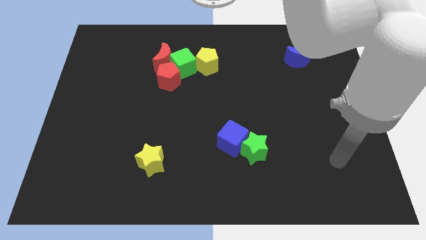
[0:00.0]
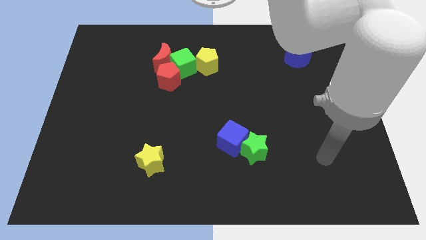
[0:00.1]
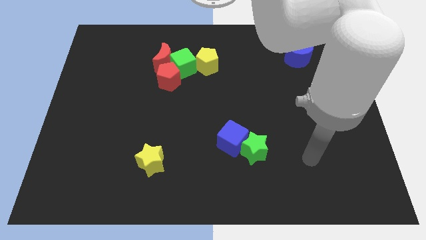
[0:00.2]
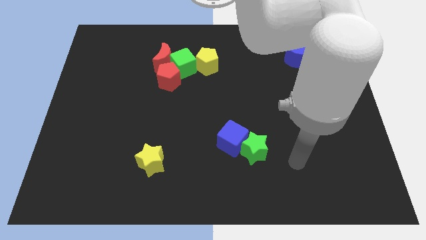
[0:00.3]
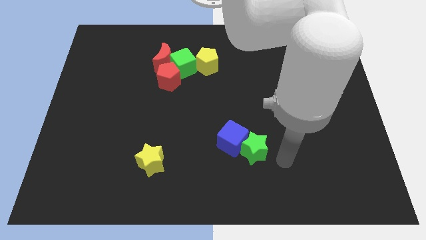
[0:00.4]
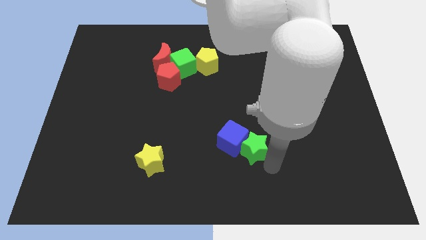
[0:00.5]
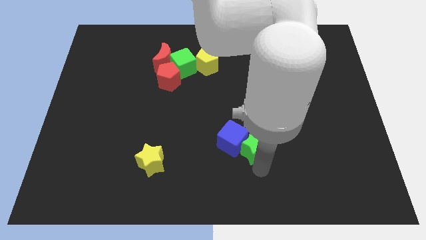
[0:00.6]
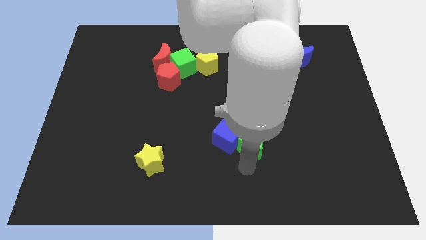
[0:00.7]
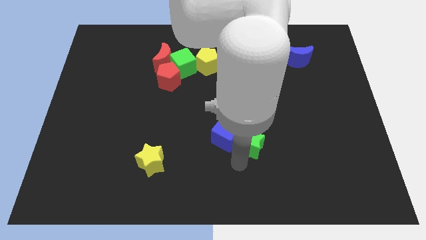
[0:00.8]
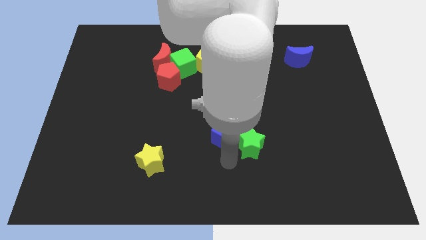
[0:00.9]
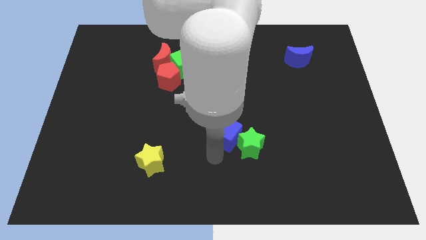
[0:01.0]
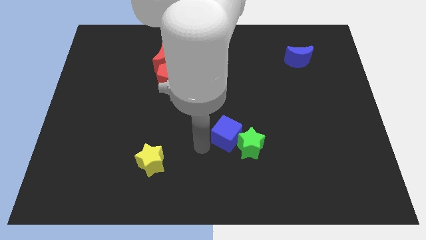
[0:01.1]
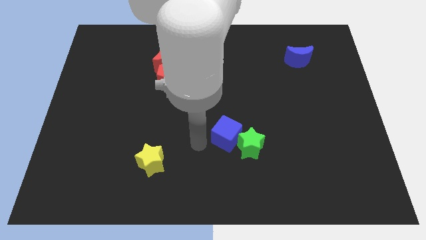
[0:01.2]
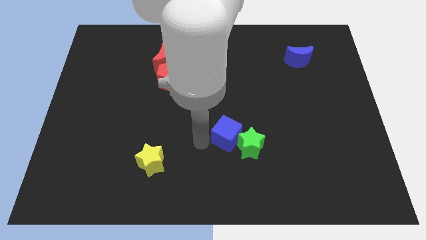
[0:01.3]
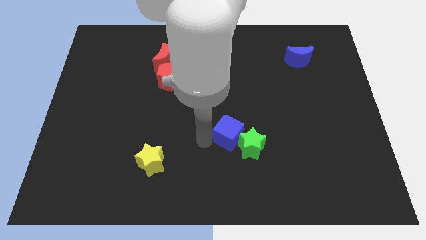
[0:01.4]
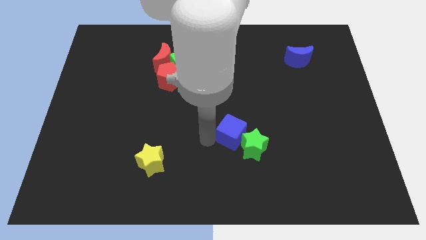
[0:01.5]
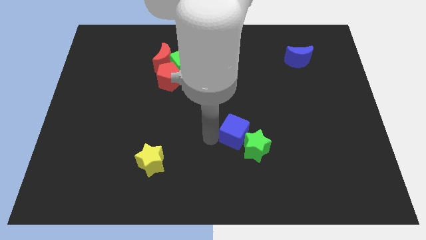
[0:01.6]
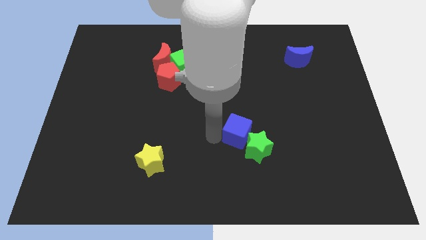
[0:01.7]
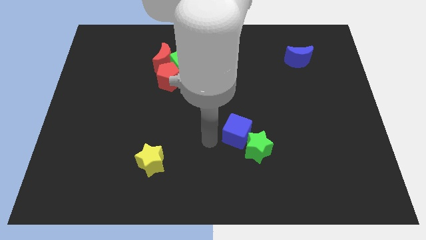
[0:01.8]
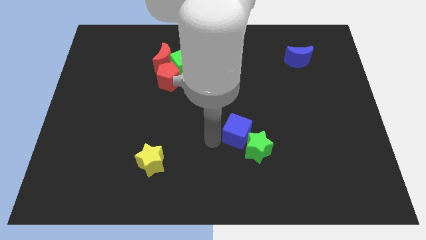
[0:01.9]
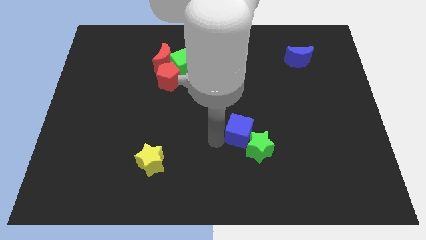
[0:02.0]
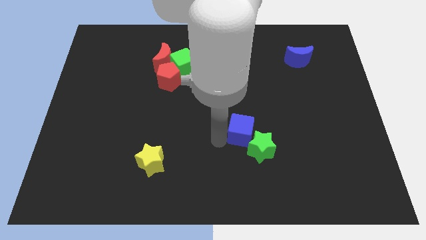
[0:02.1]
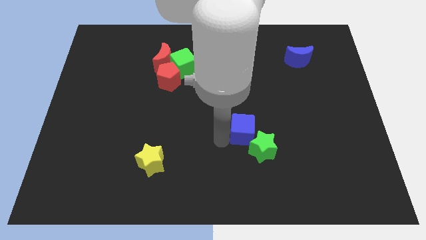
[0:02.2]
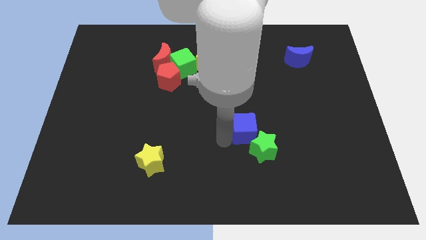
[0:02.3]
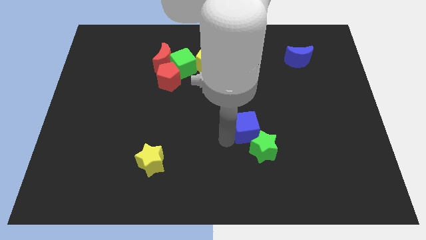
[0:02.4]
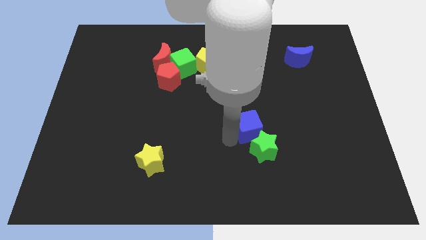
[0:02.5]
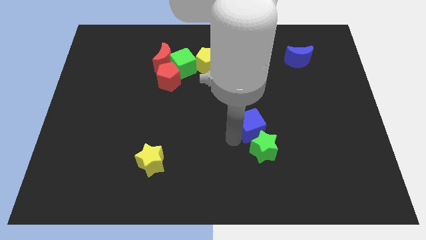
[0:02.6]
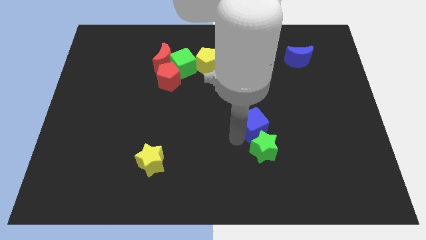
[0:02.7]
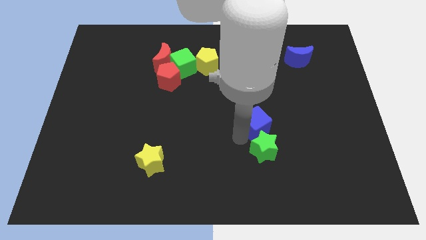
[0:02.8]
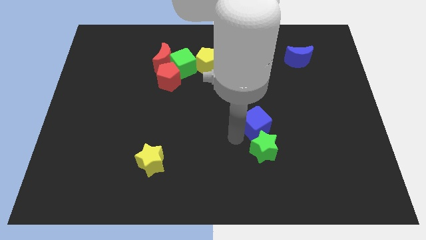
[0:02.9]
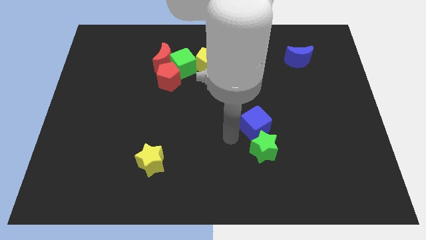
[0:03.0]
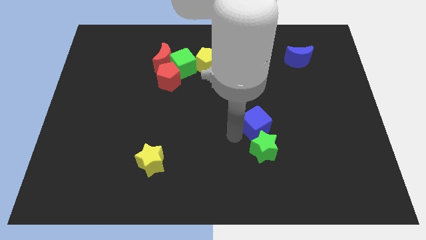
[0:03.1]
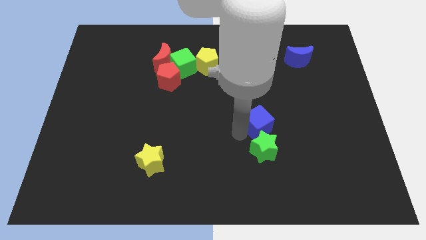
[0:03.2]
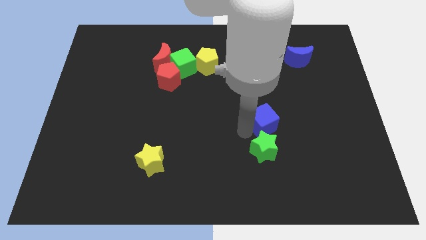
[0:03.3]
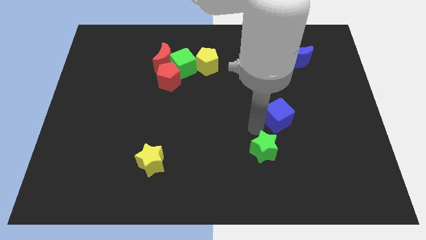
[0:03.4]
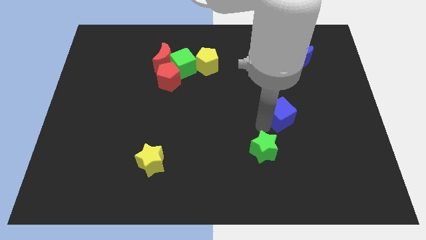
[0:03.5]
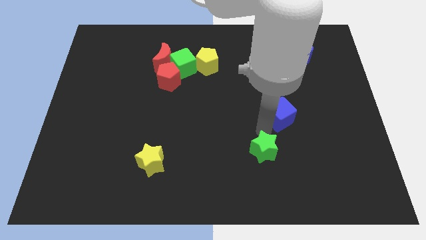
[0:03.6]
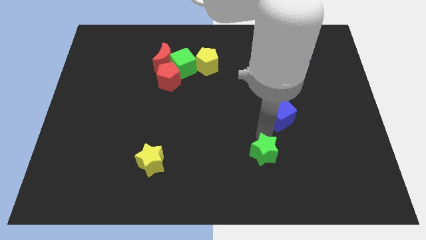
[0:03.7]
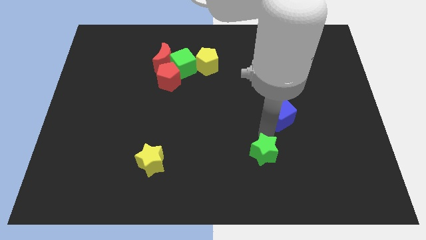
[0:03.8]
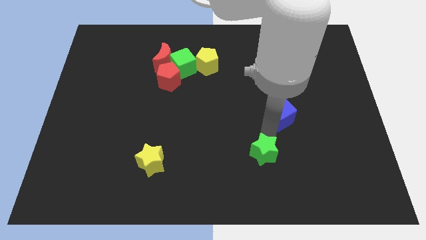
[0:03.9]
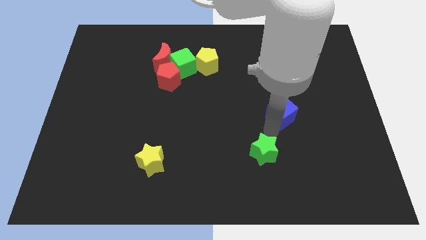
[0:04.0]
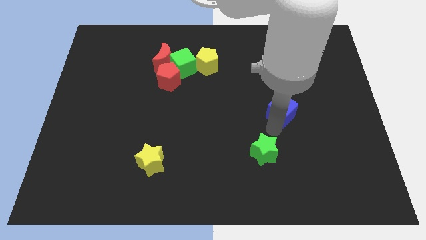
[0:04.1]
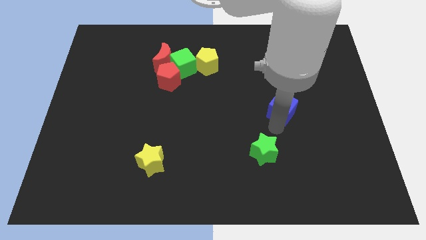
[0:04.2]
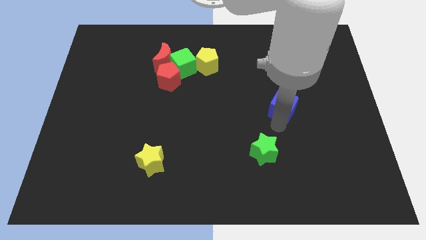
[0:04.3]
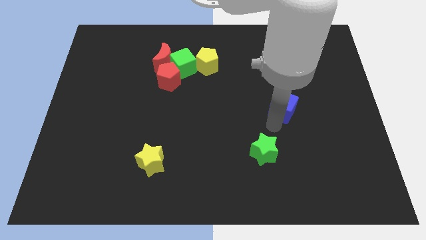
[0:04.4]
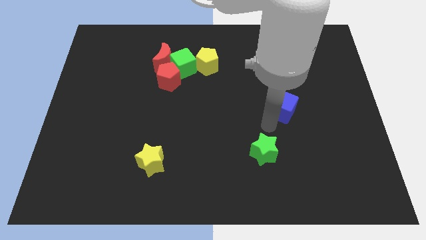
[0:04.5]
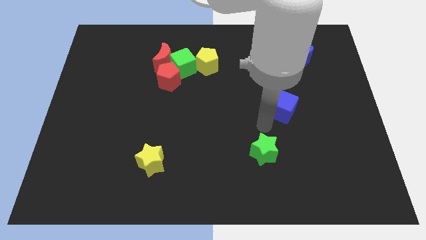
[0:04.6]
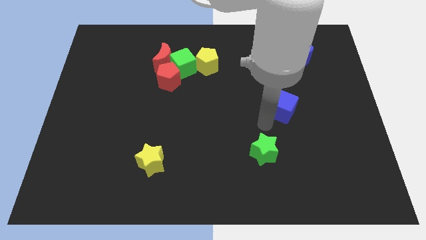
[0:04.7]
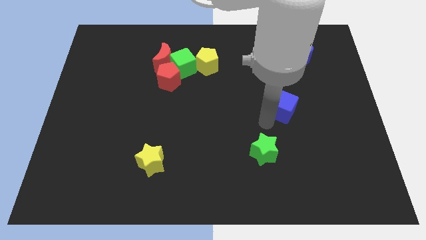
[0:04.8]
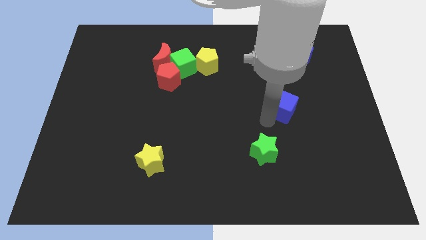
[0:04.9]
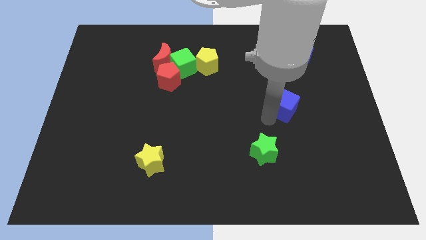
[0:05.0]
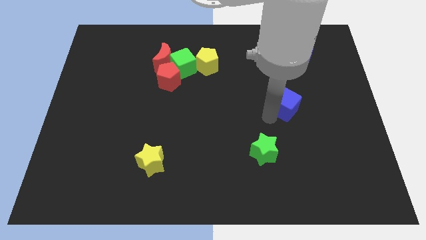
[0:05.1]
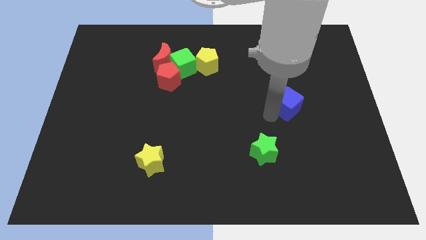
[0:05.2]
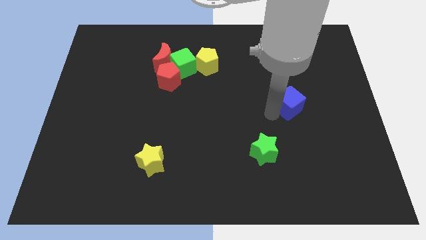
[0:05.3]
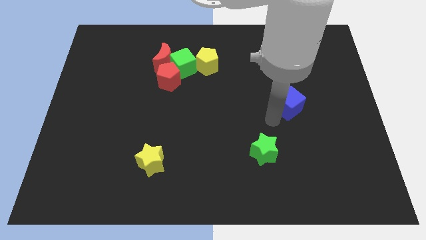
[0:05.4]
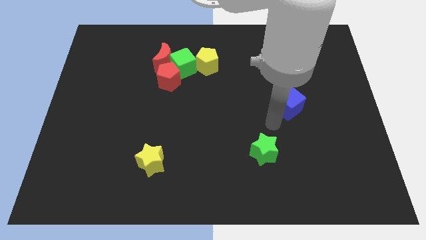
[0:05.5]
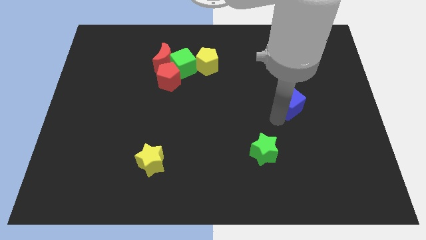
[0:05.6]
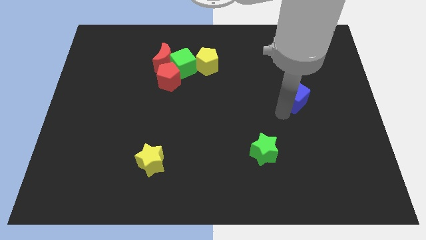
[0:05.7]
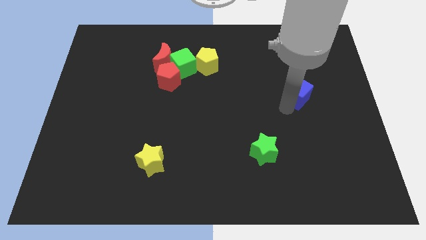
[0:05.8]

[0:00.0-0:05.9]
push the blue cube diagonally up and right

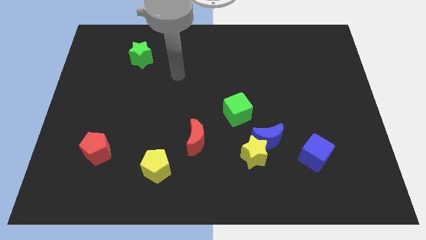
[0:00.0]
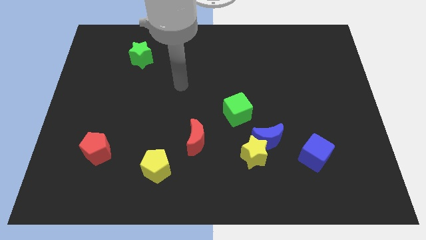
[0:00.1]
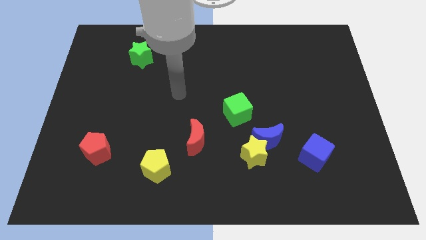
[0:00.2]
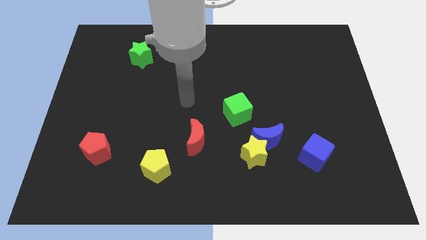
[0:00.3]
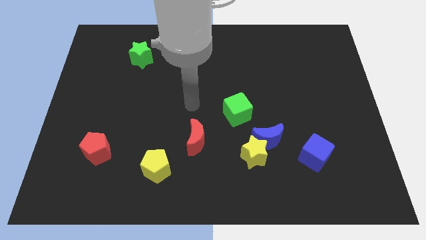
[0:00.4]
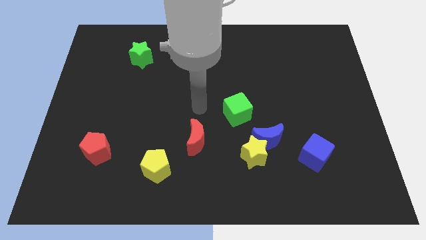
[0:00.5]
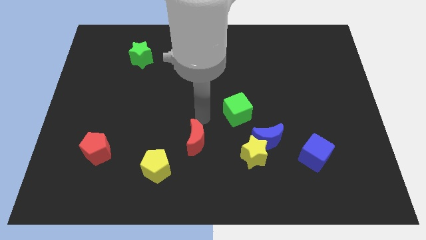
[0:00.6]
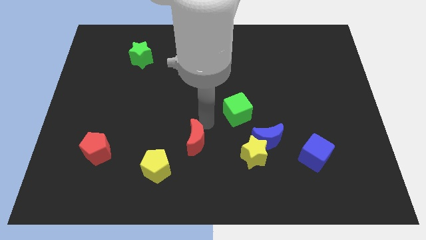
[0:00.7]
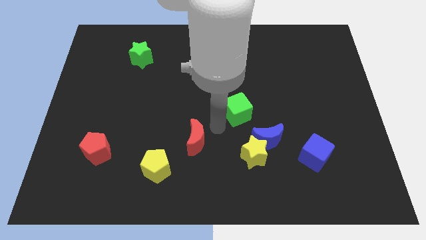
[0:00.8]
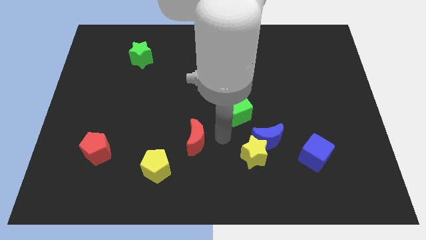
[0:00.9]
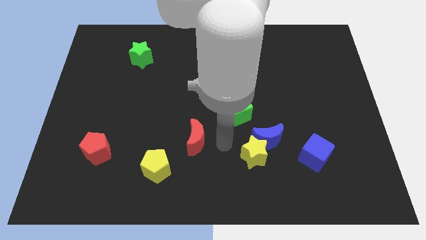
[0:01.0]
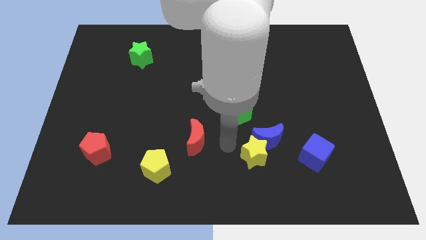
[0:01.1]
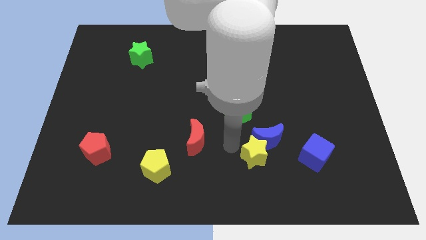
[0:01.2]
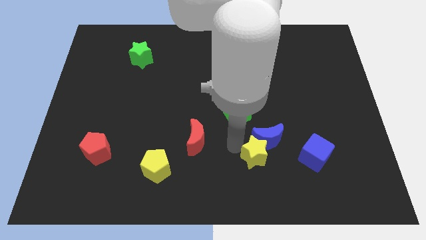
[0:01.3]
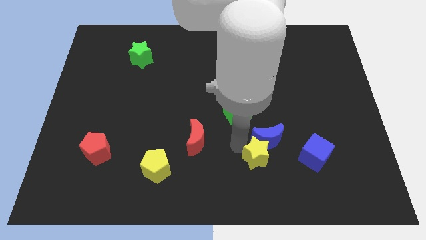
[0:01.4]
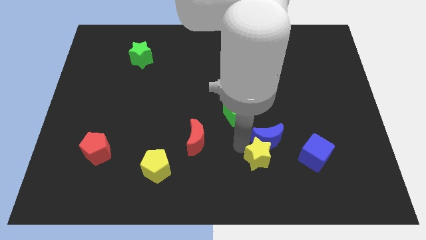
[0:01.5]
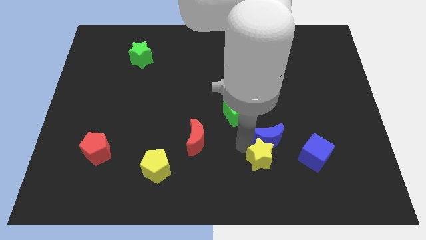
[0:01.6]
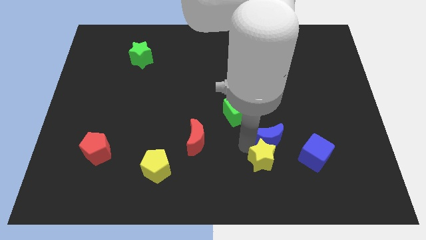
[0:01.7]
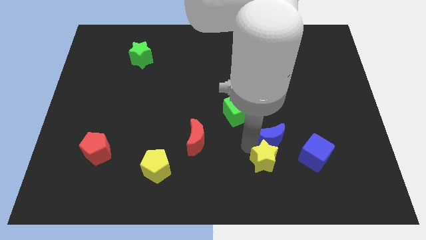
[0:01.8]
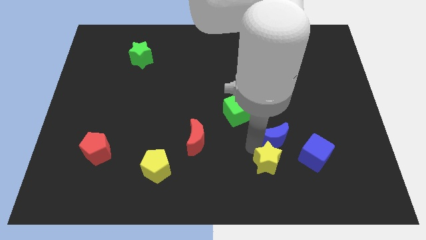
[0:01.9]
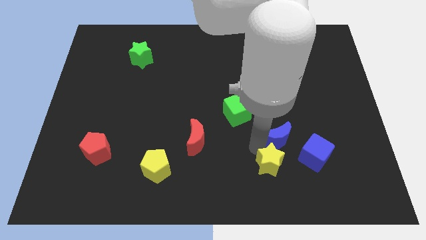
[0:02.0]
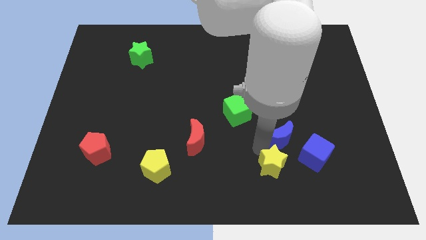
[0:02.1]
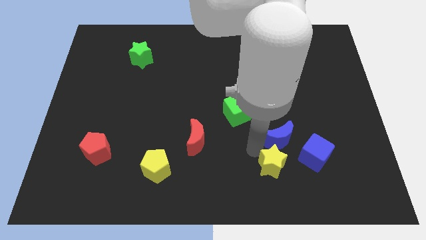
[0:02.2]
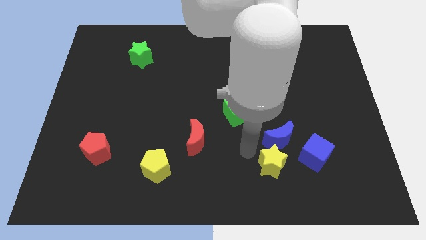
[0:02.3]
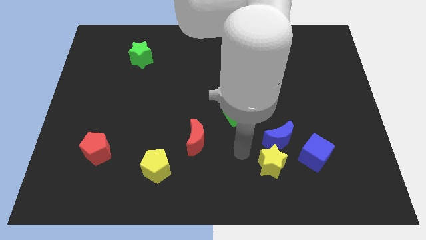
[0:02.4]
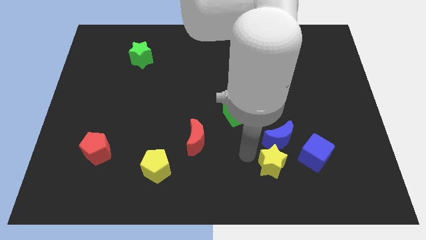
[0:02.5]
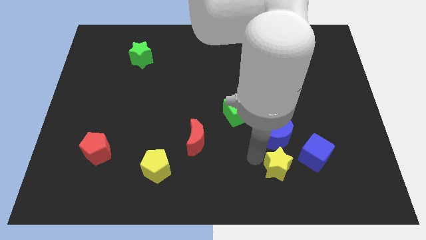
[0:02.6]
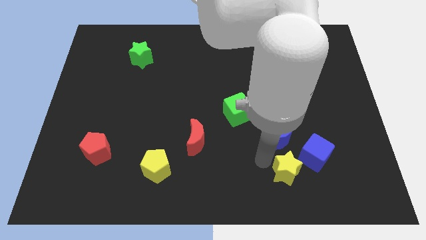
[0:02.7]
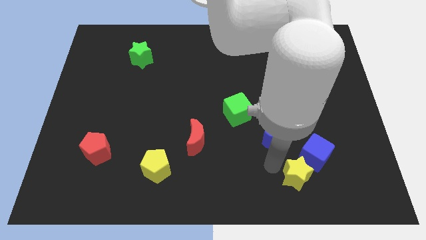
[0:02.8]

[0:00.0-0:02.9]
slide the yellow star a little to the right
